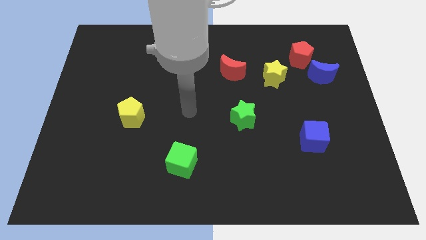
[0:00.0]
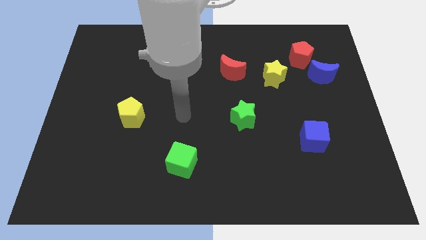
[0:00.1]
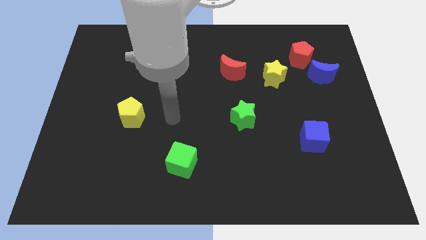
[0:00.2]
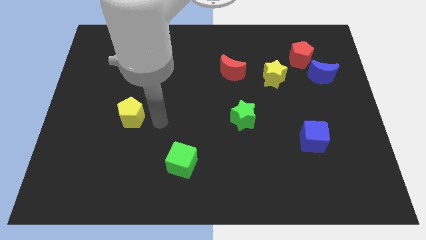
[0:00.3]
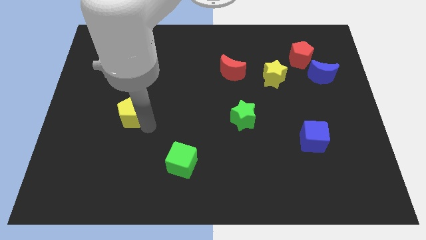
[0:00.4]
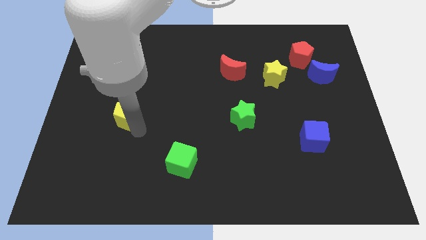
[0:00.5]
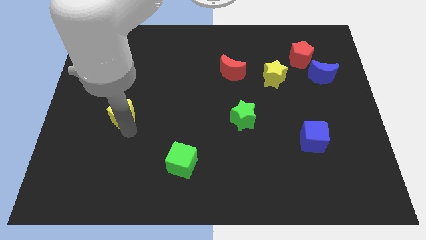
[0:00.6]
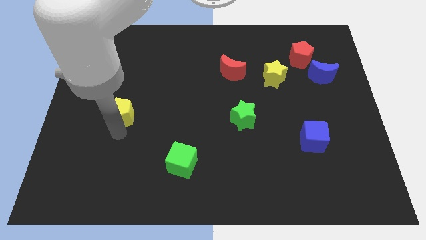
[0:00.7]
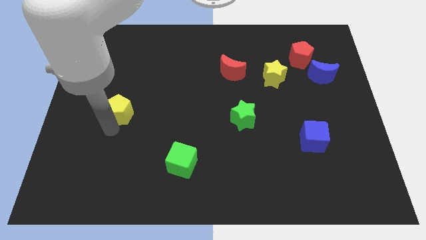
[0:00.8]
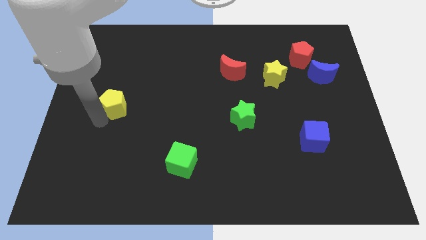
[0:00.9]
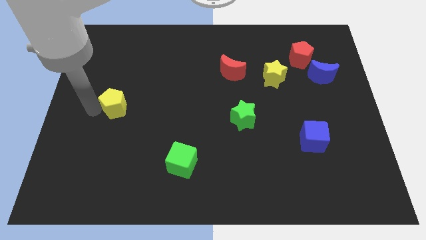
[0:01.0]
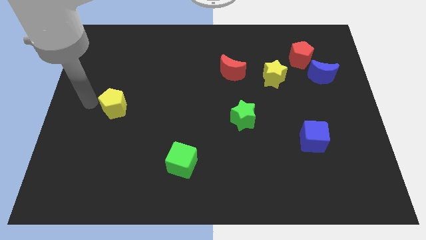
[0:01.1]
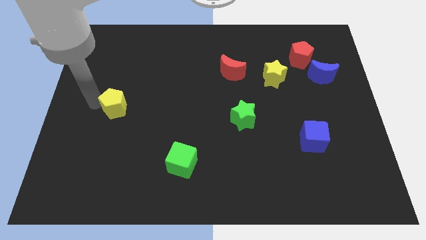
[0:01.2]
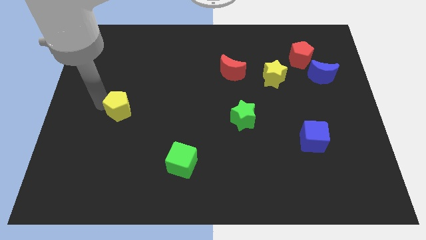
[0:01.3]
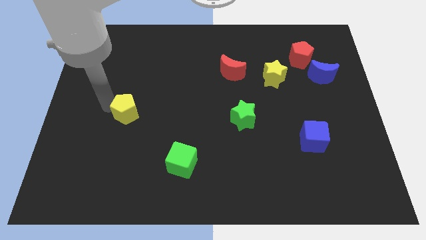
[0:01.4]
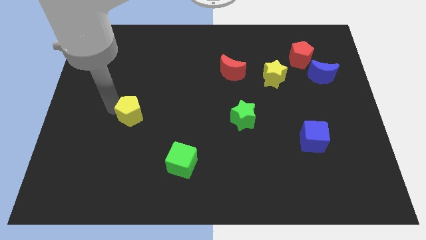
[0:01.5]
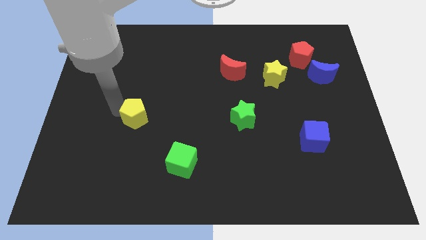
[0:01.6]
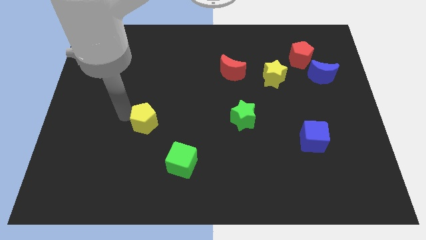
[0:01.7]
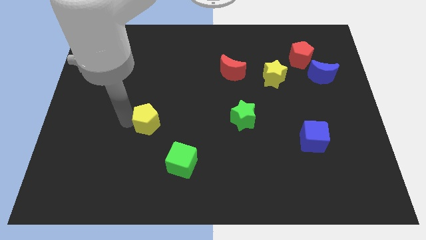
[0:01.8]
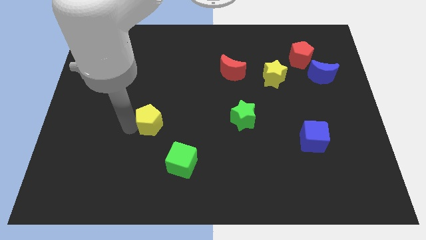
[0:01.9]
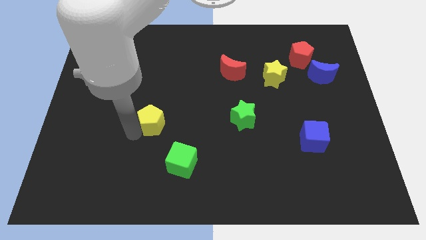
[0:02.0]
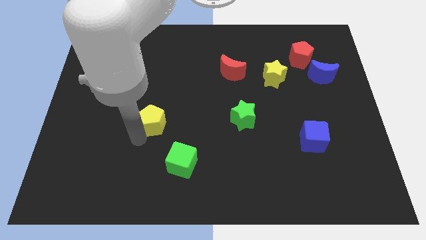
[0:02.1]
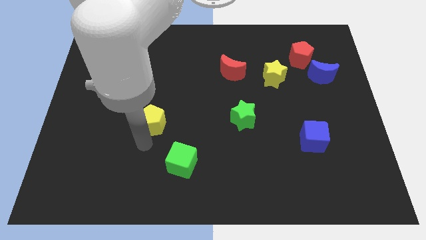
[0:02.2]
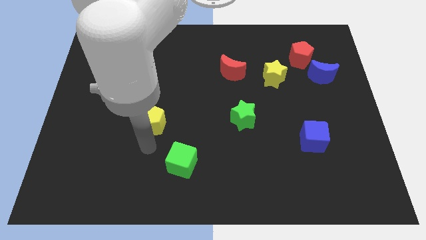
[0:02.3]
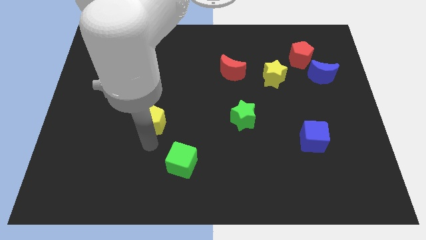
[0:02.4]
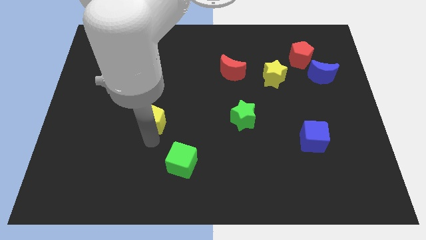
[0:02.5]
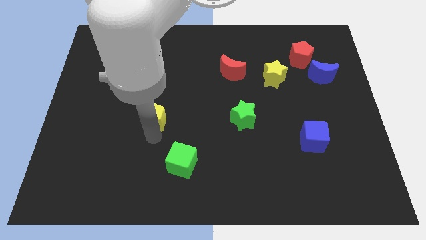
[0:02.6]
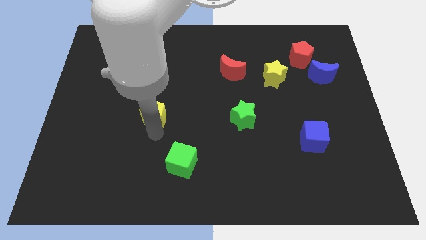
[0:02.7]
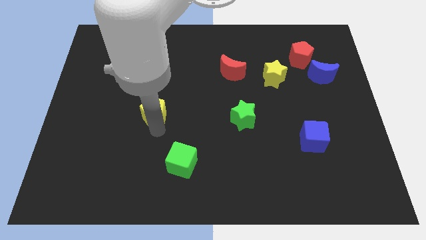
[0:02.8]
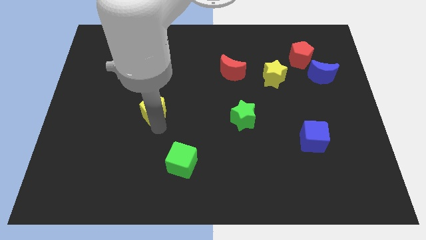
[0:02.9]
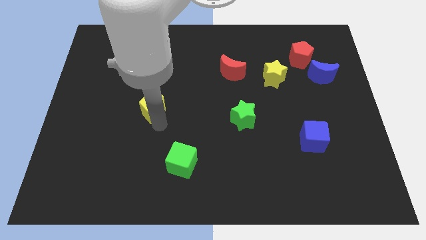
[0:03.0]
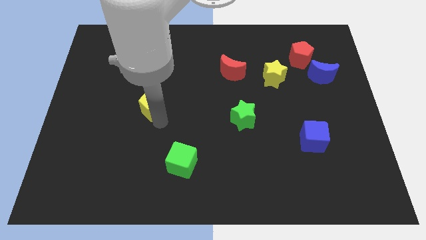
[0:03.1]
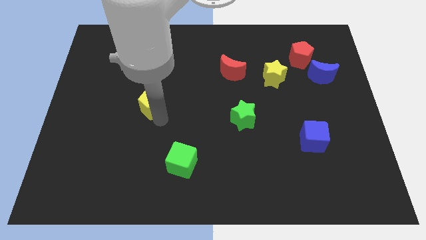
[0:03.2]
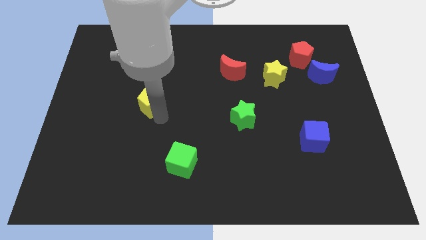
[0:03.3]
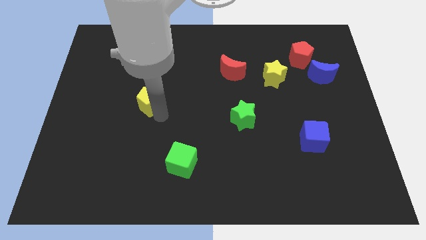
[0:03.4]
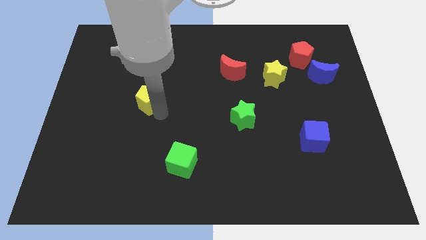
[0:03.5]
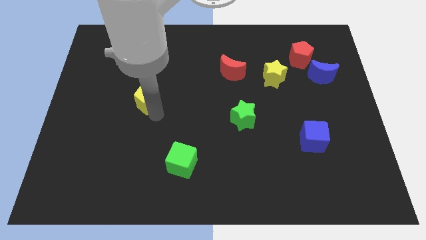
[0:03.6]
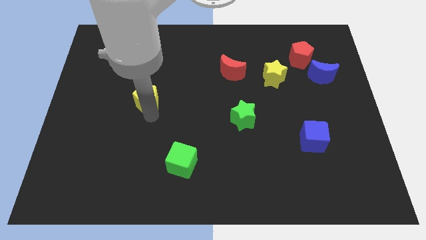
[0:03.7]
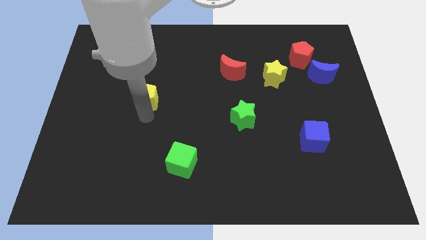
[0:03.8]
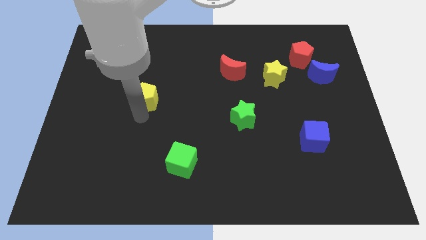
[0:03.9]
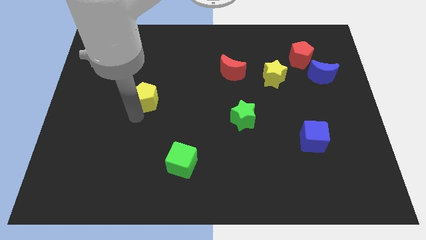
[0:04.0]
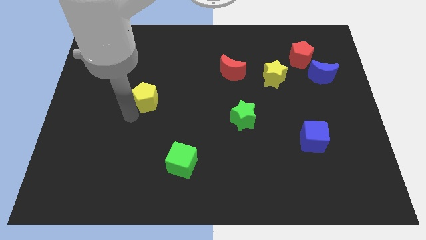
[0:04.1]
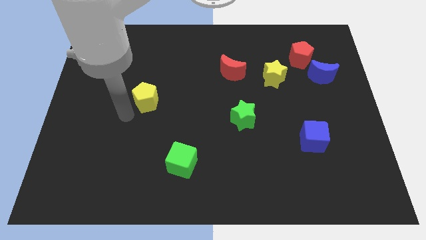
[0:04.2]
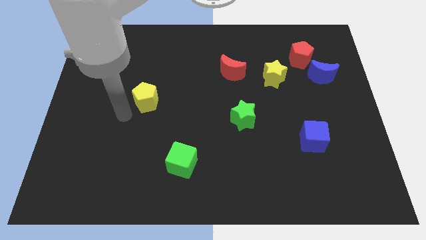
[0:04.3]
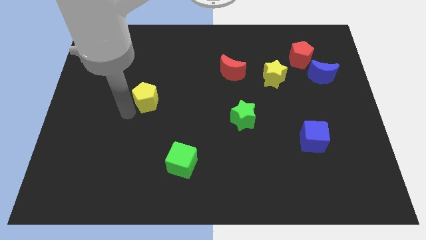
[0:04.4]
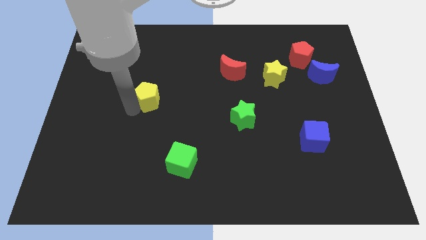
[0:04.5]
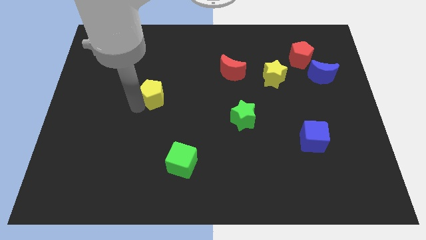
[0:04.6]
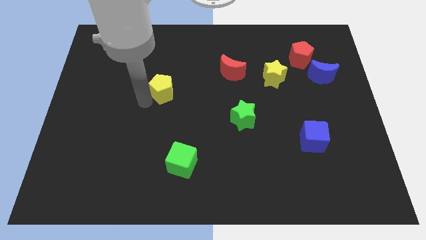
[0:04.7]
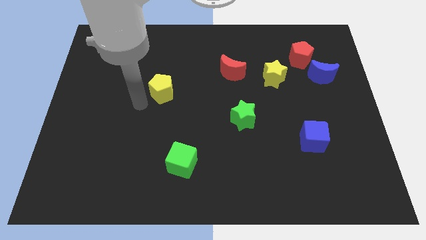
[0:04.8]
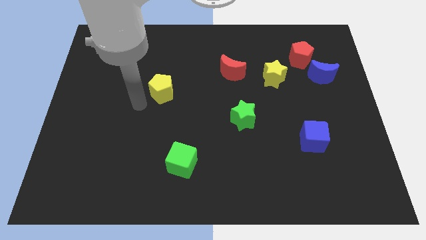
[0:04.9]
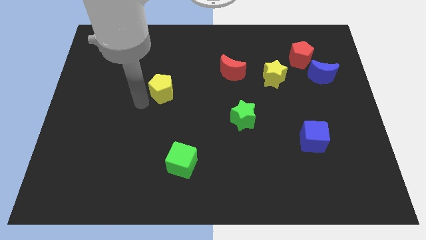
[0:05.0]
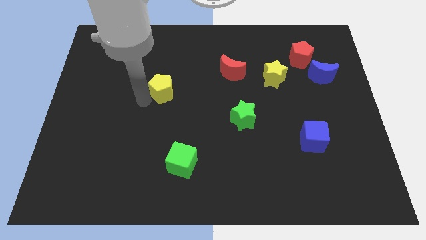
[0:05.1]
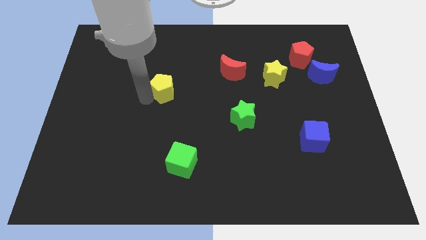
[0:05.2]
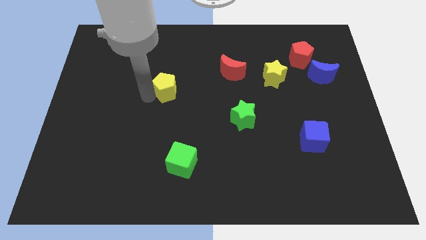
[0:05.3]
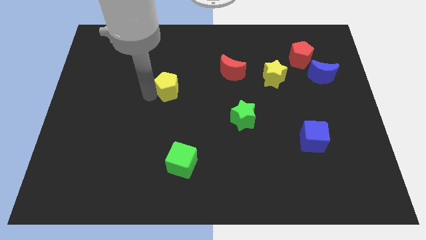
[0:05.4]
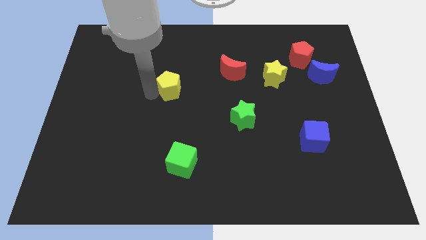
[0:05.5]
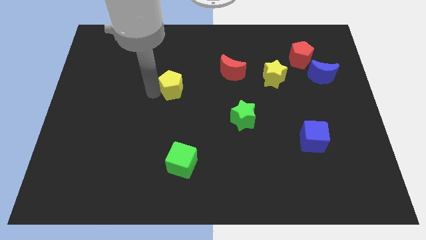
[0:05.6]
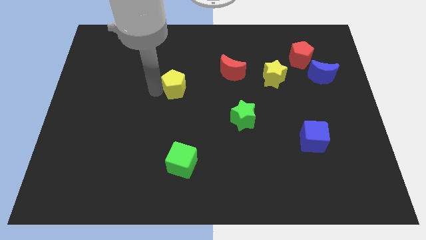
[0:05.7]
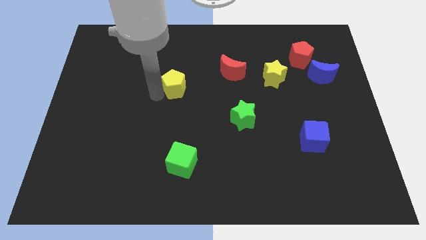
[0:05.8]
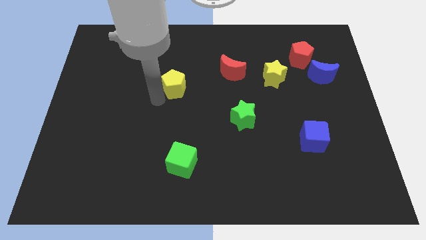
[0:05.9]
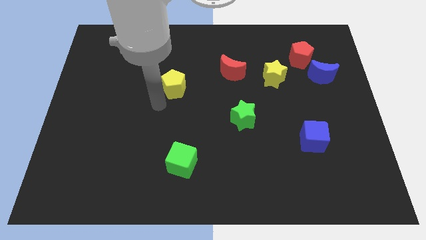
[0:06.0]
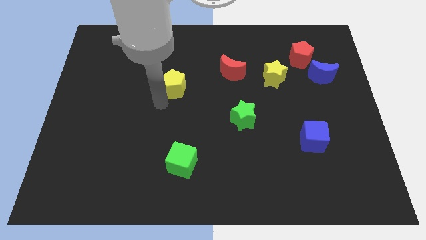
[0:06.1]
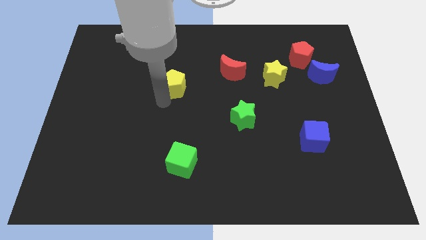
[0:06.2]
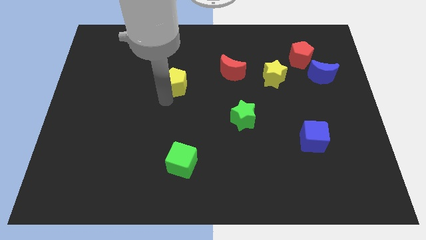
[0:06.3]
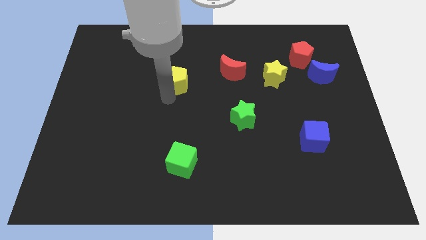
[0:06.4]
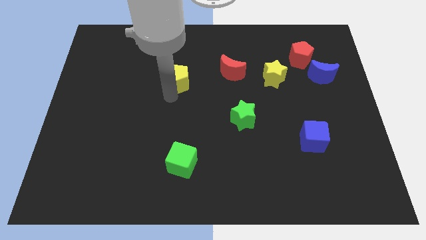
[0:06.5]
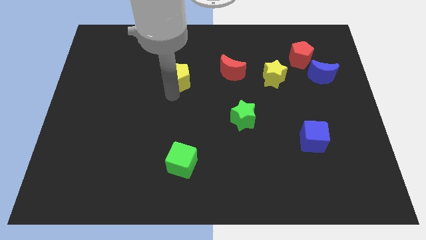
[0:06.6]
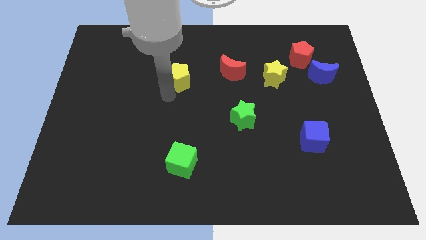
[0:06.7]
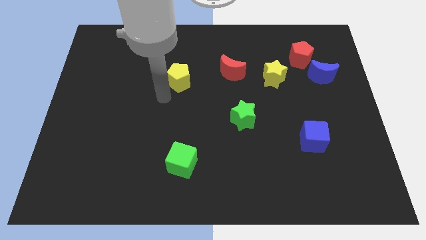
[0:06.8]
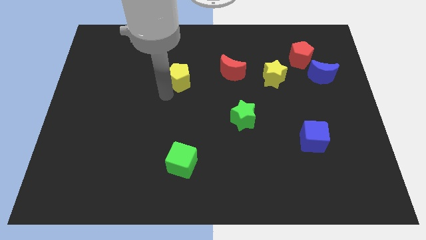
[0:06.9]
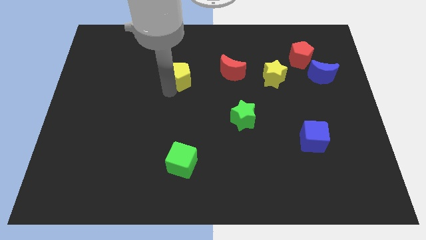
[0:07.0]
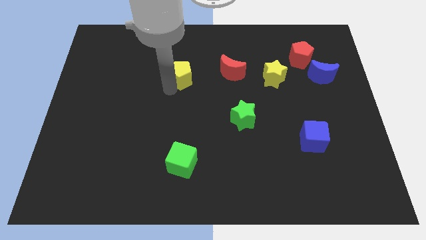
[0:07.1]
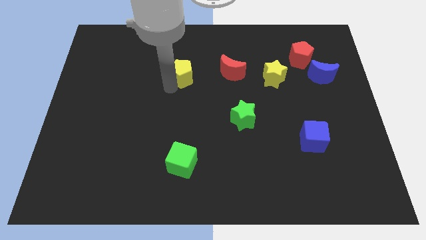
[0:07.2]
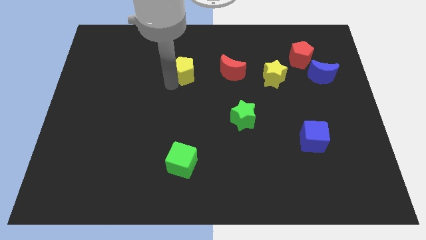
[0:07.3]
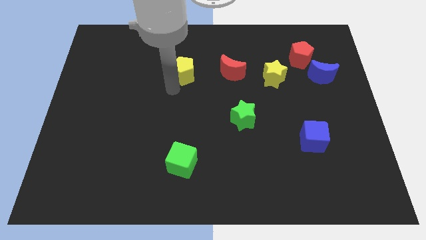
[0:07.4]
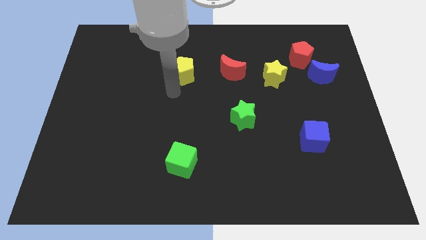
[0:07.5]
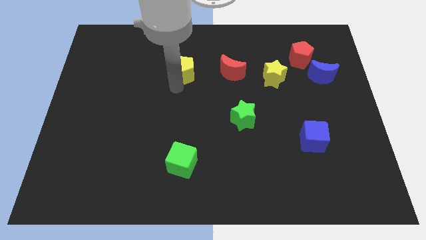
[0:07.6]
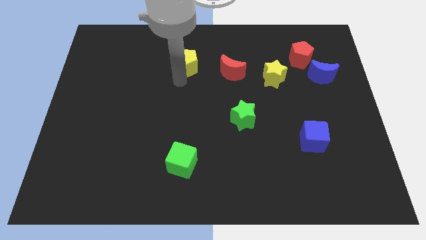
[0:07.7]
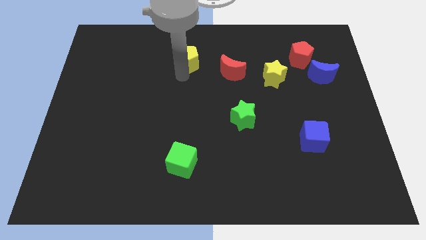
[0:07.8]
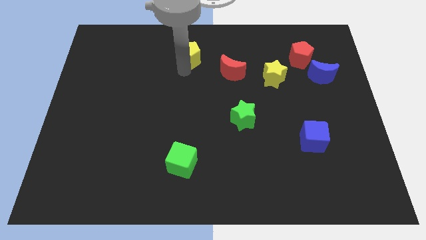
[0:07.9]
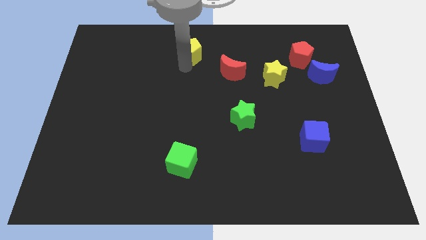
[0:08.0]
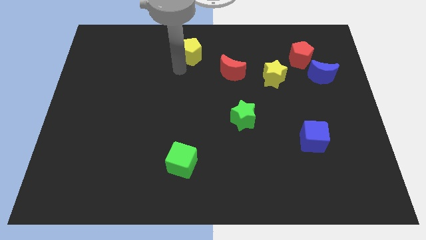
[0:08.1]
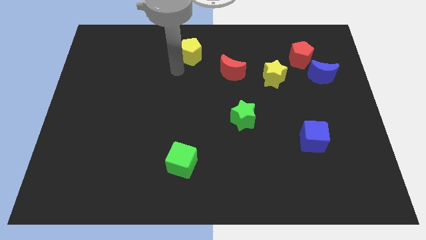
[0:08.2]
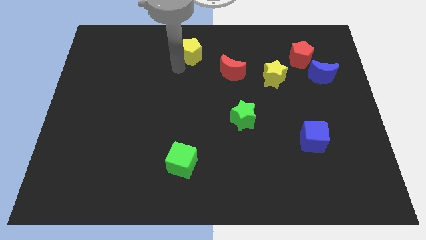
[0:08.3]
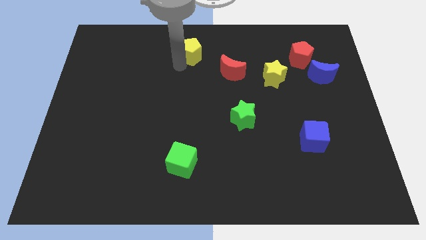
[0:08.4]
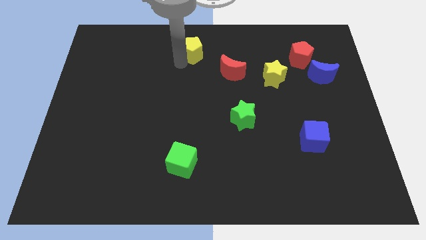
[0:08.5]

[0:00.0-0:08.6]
slide the yellow pentagon to the top side
